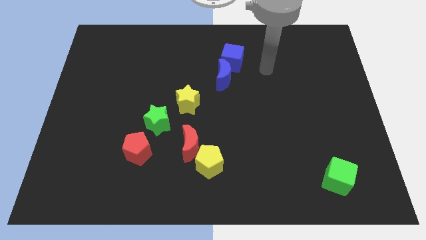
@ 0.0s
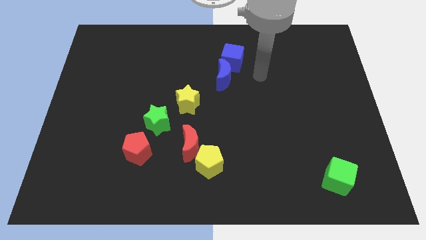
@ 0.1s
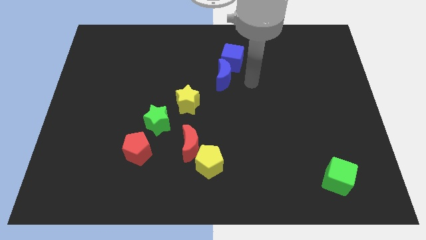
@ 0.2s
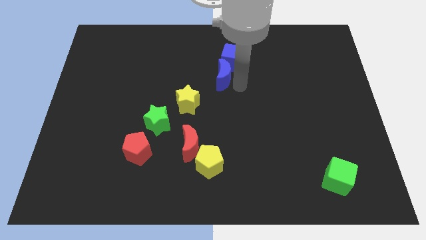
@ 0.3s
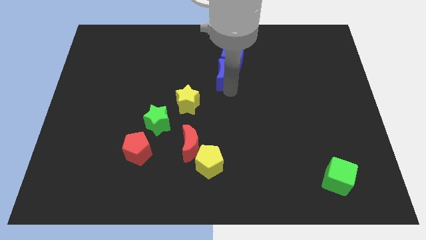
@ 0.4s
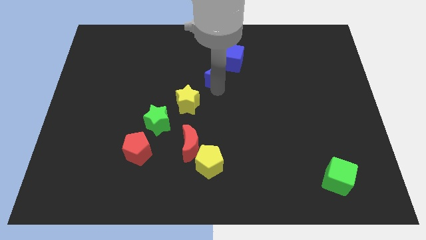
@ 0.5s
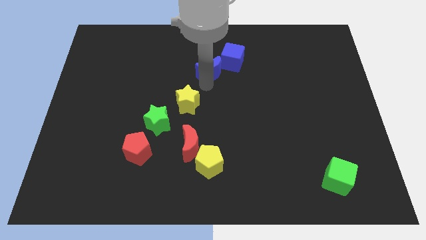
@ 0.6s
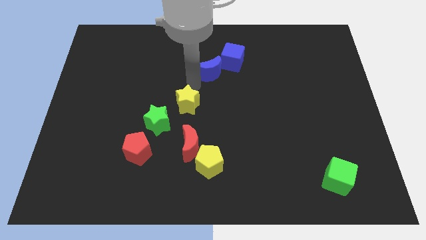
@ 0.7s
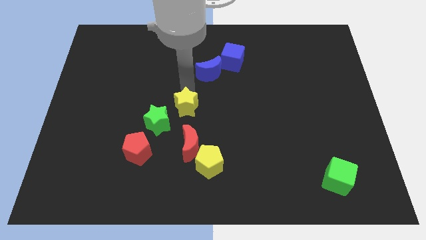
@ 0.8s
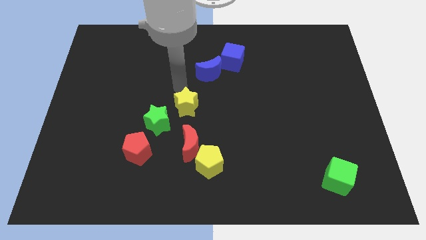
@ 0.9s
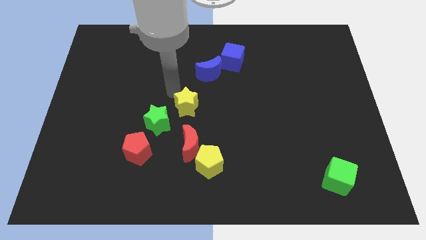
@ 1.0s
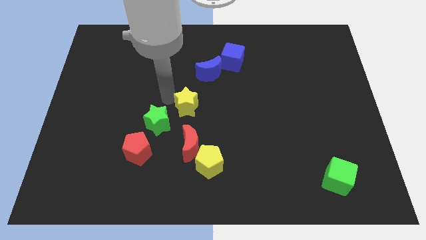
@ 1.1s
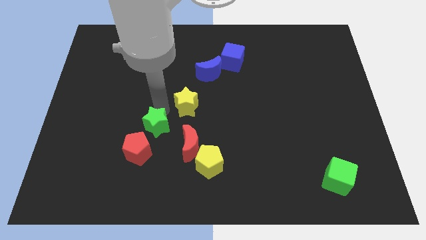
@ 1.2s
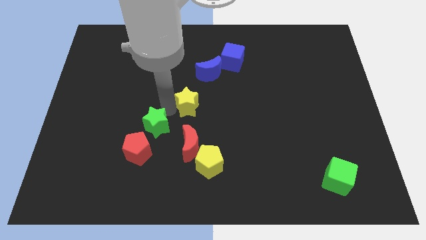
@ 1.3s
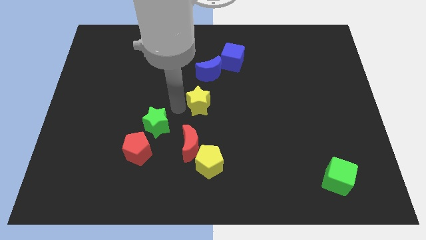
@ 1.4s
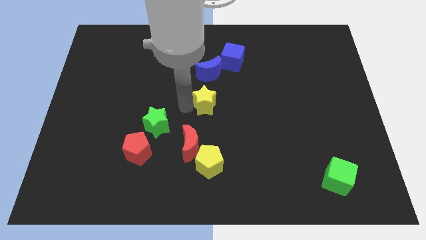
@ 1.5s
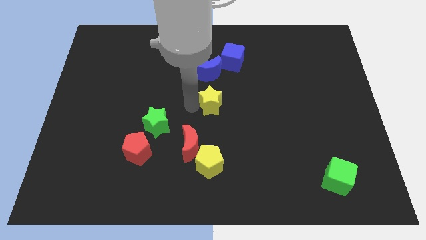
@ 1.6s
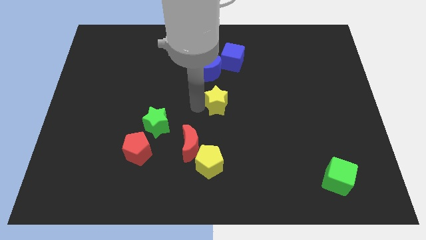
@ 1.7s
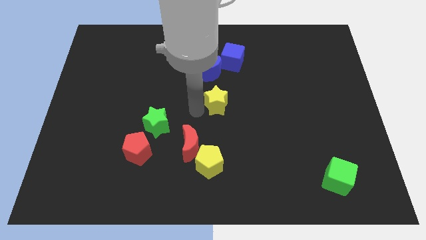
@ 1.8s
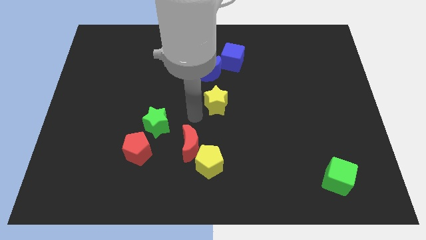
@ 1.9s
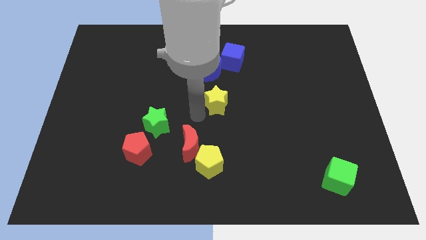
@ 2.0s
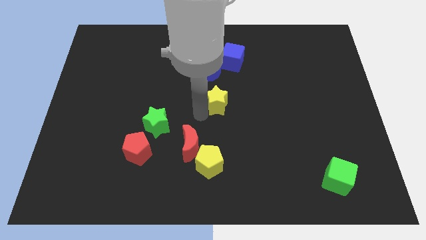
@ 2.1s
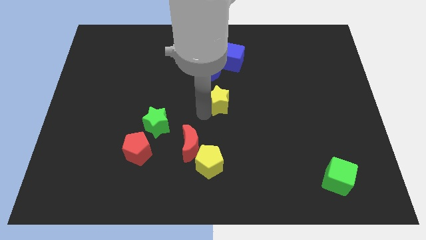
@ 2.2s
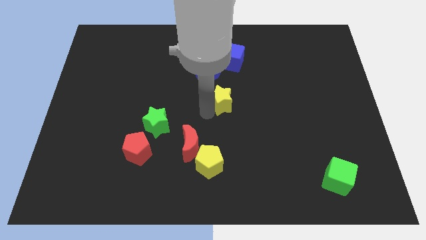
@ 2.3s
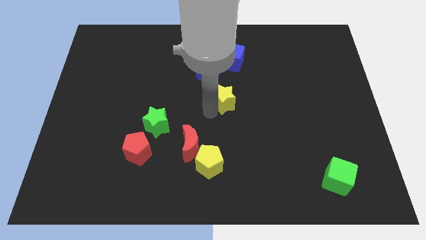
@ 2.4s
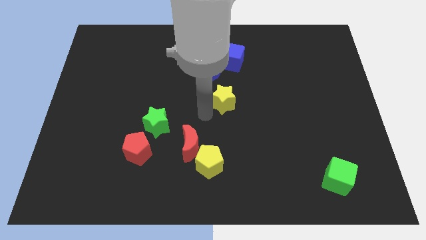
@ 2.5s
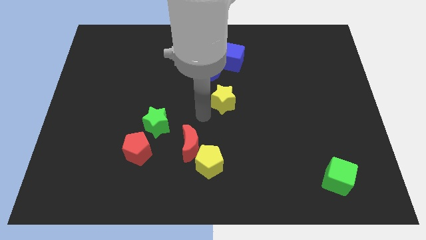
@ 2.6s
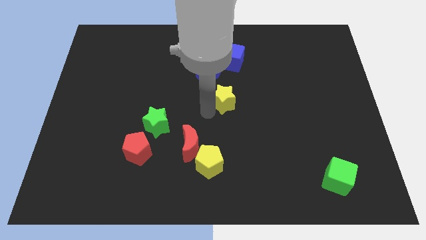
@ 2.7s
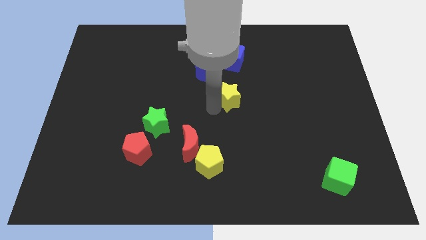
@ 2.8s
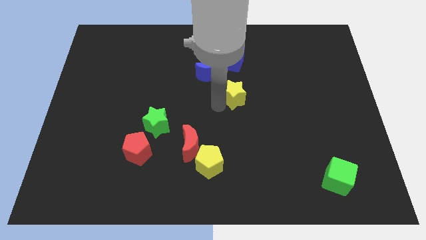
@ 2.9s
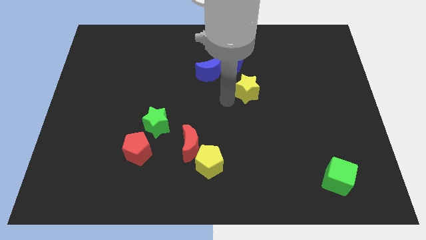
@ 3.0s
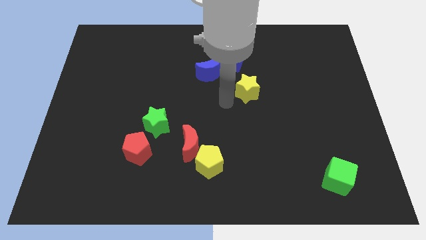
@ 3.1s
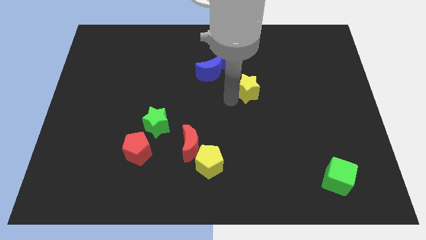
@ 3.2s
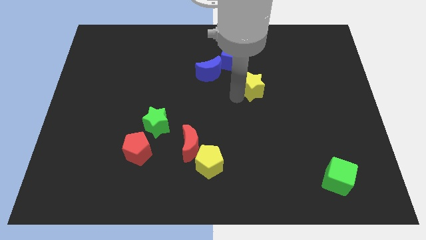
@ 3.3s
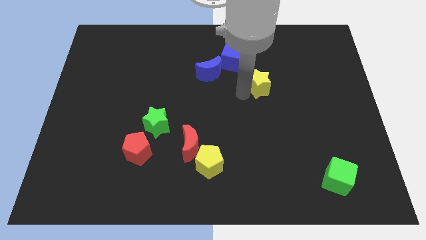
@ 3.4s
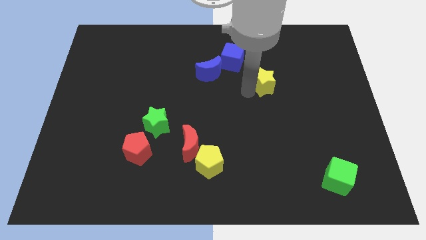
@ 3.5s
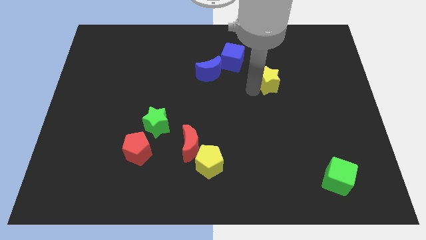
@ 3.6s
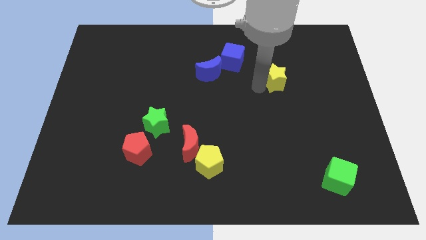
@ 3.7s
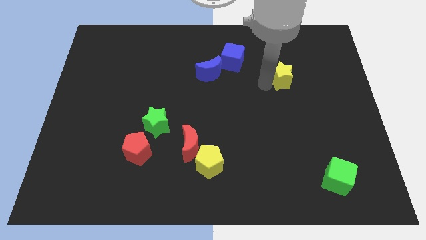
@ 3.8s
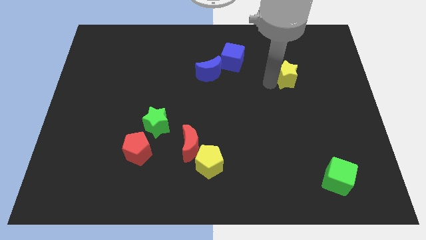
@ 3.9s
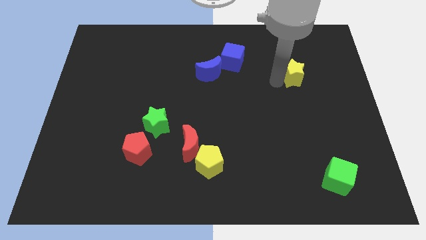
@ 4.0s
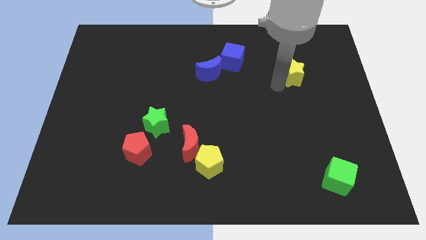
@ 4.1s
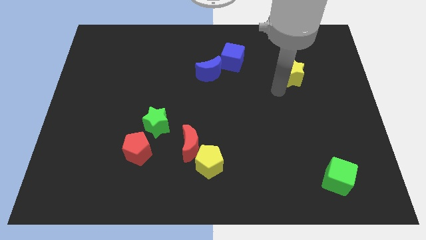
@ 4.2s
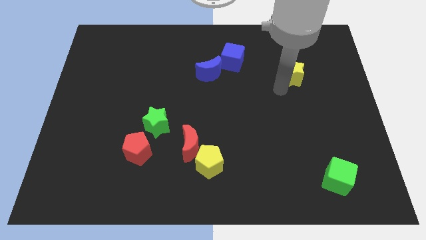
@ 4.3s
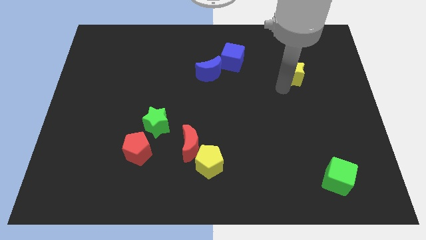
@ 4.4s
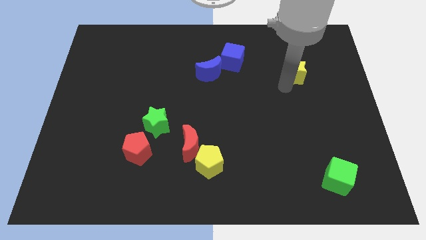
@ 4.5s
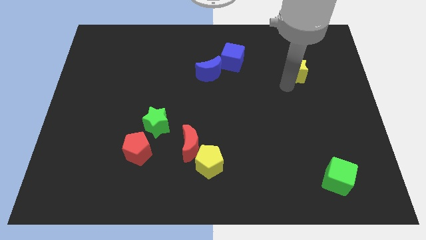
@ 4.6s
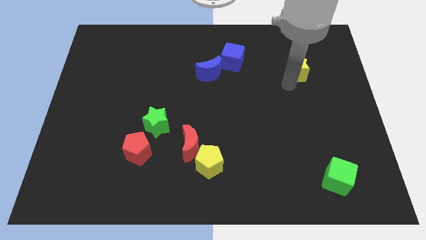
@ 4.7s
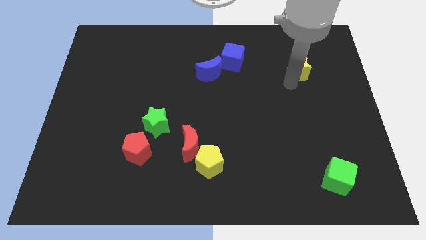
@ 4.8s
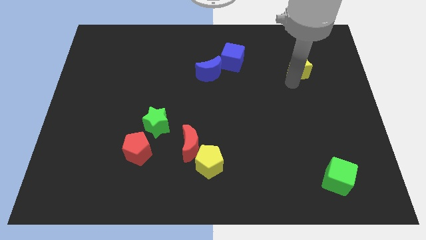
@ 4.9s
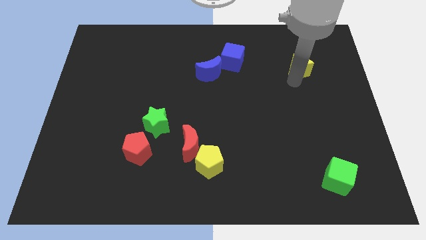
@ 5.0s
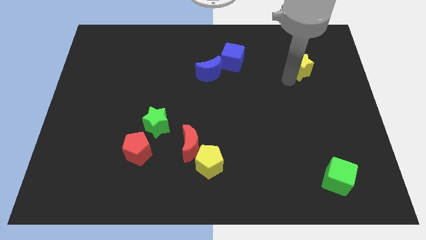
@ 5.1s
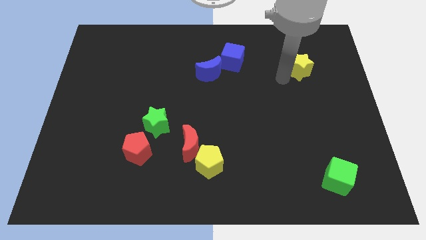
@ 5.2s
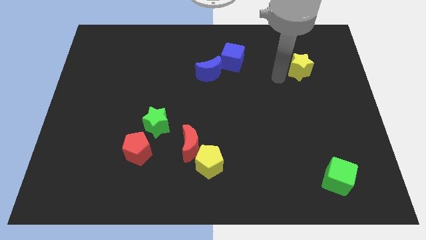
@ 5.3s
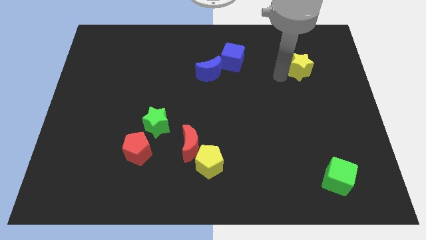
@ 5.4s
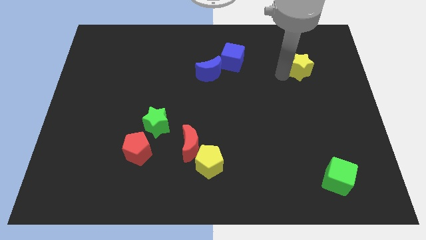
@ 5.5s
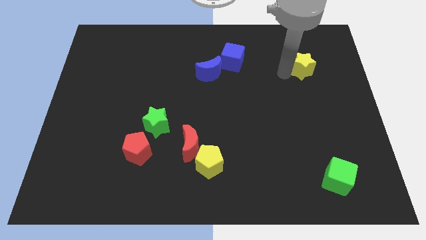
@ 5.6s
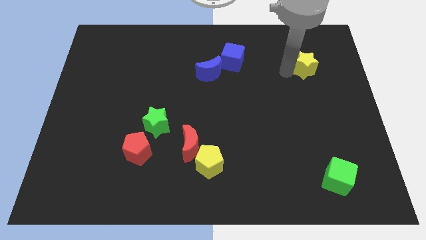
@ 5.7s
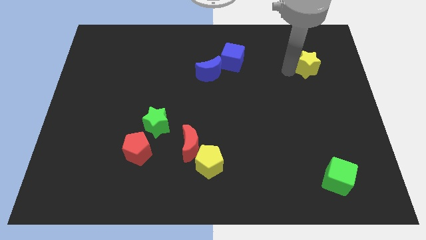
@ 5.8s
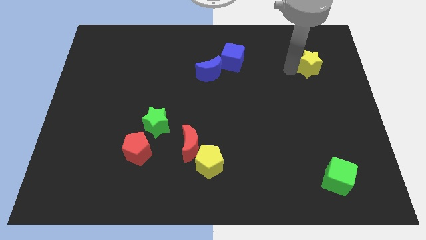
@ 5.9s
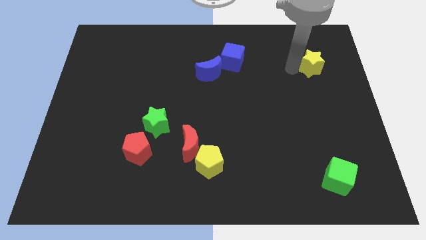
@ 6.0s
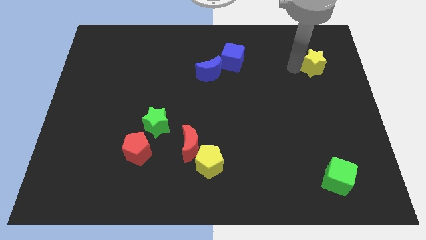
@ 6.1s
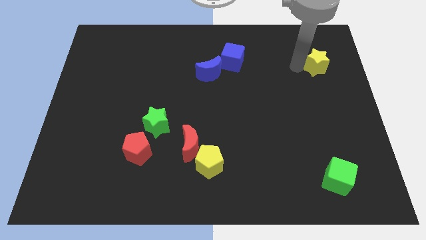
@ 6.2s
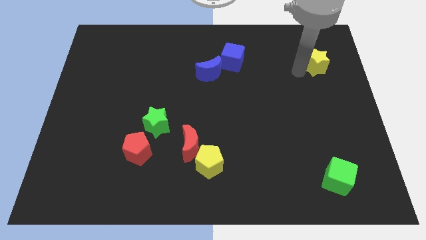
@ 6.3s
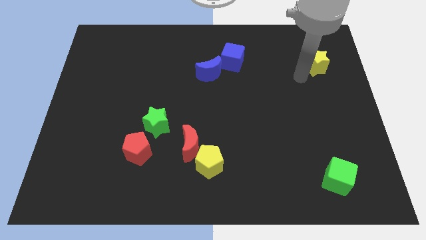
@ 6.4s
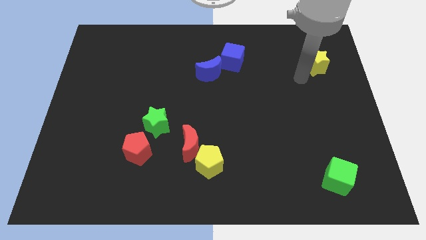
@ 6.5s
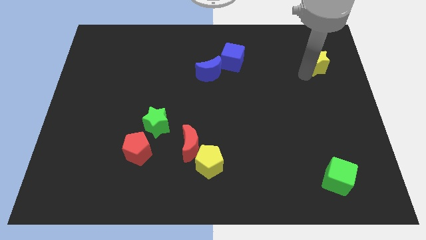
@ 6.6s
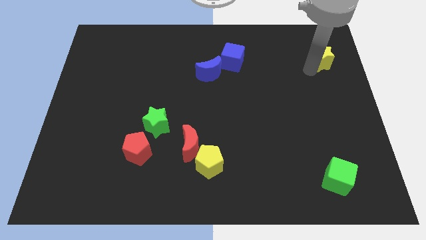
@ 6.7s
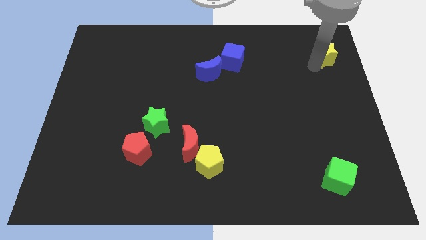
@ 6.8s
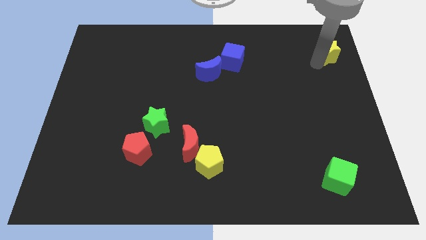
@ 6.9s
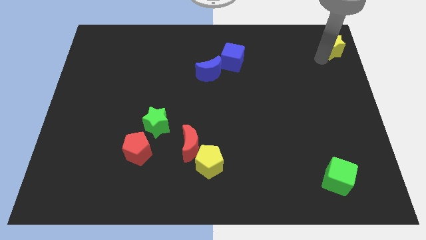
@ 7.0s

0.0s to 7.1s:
move the yellow star to the top right of the board
